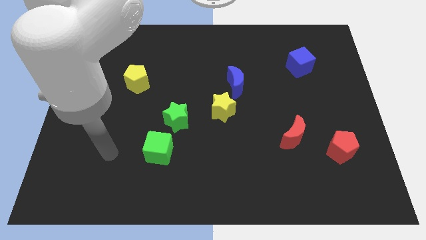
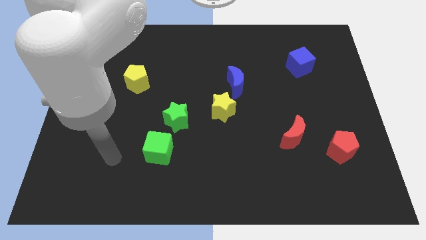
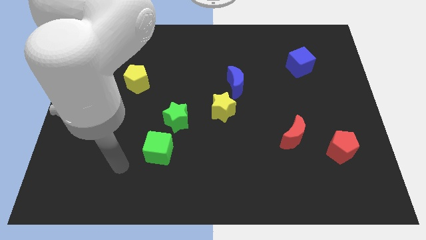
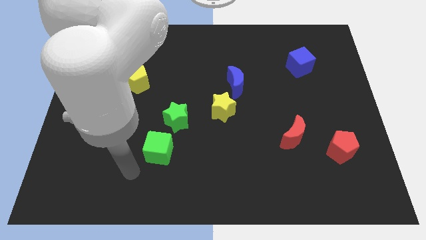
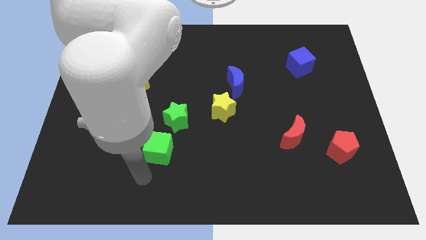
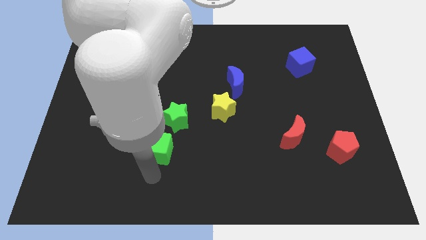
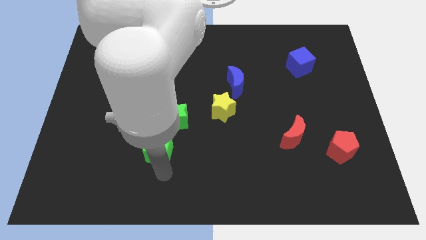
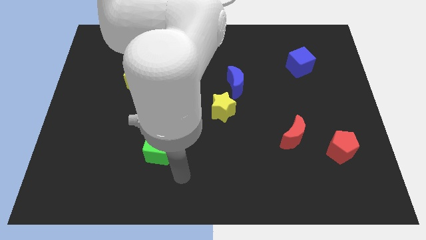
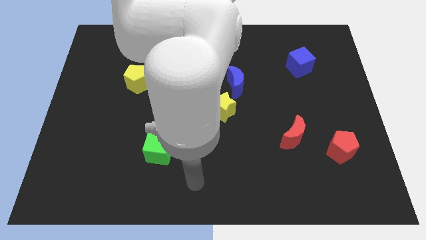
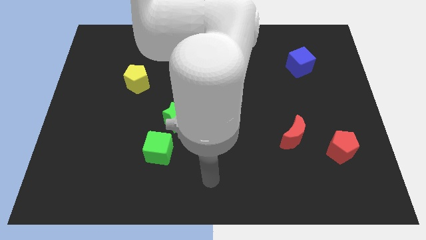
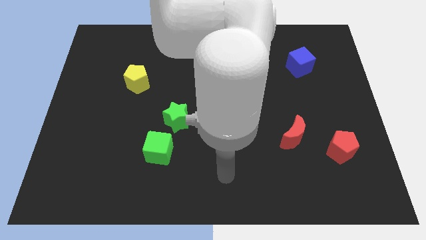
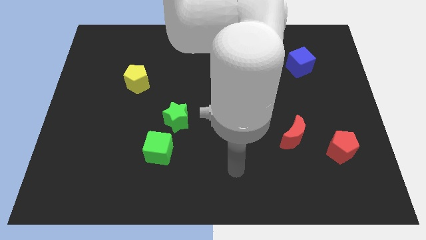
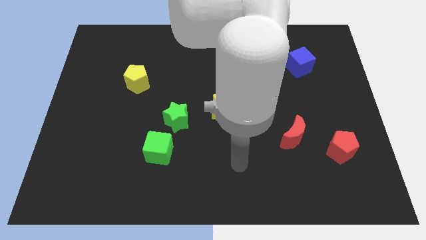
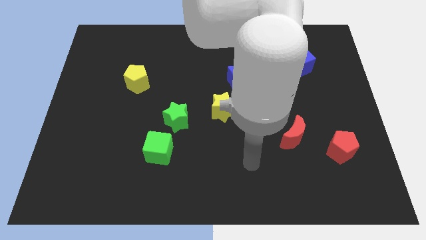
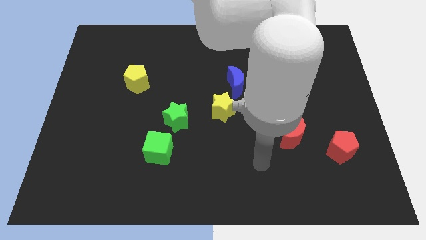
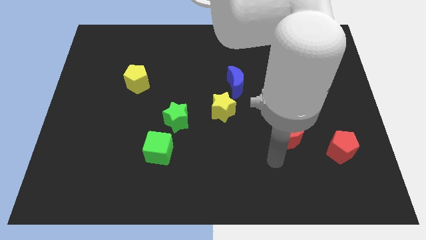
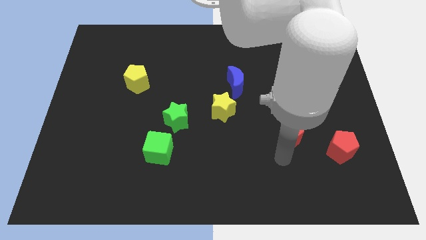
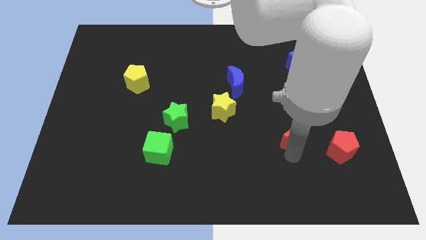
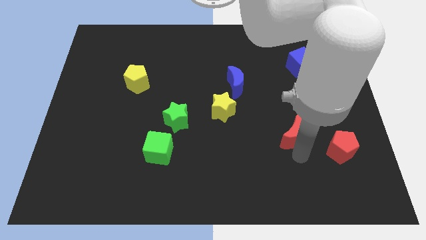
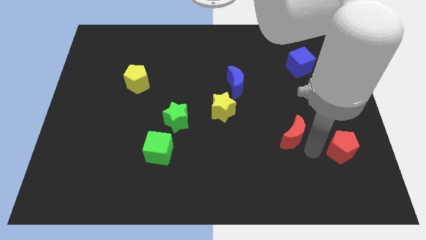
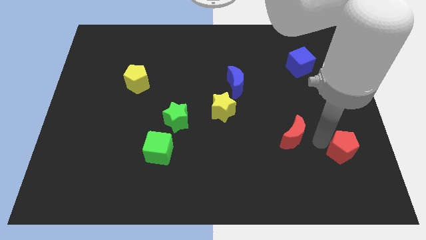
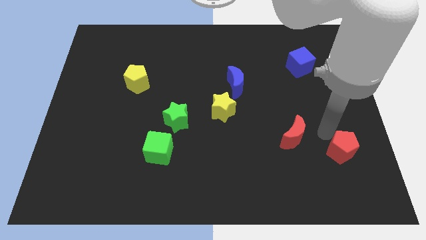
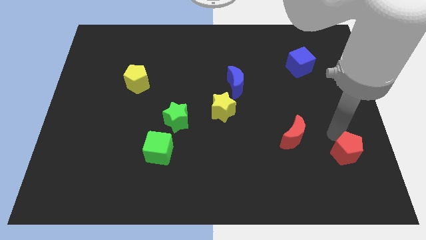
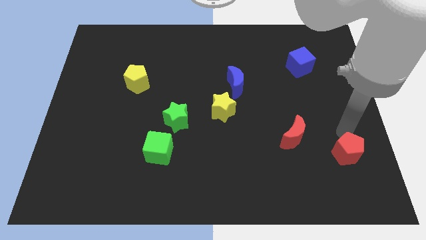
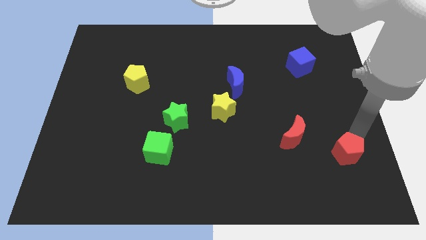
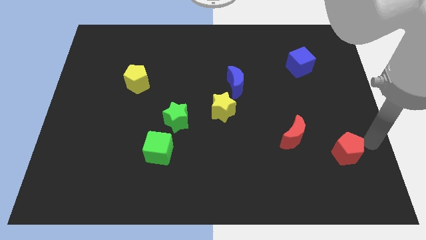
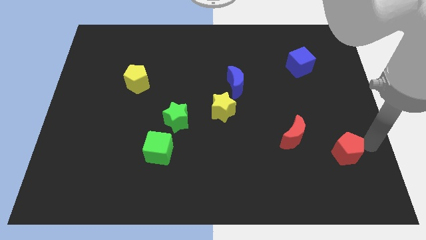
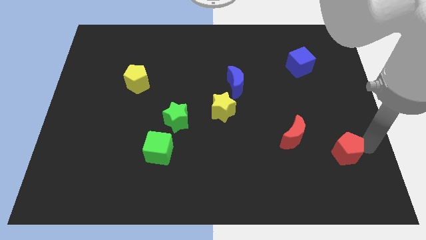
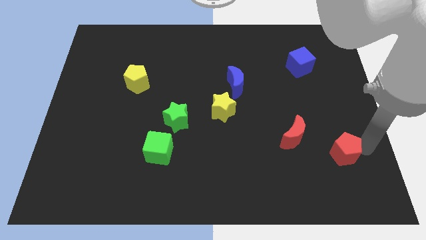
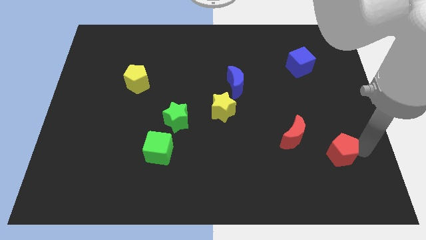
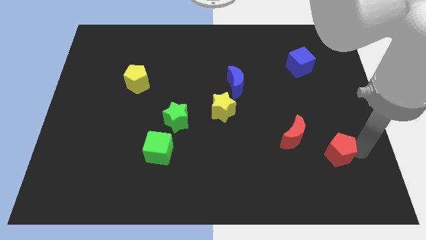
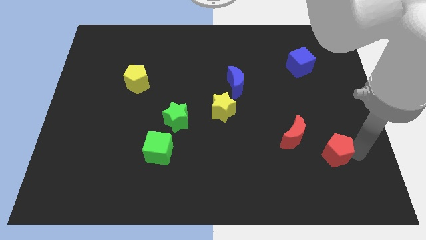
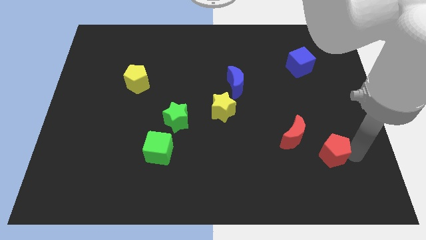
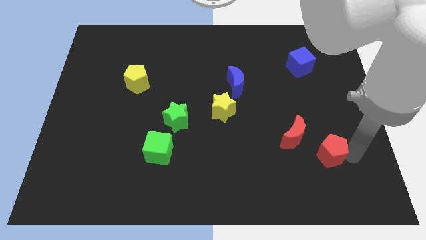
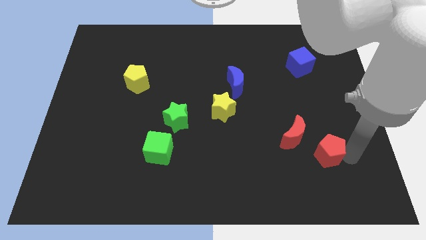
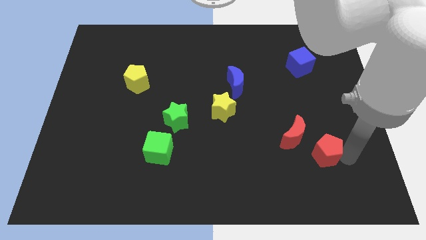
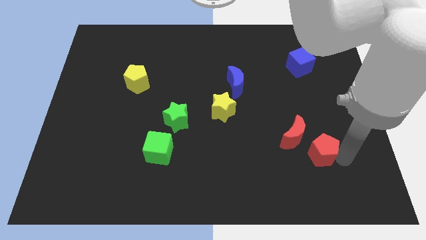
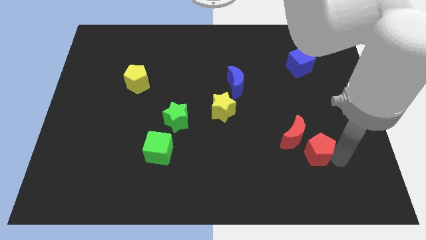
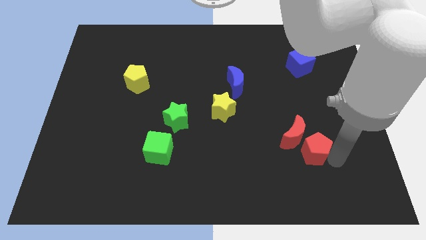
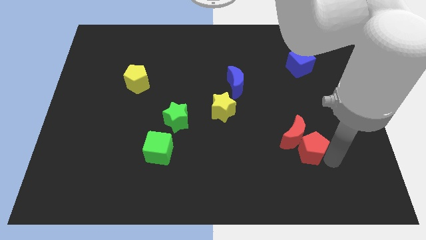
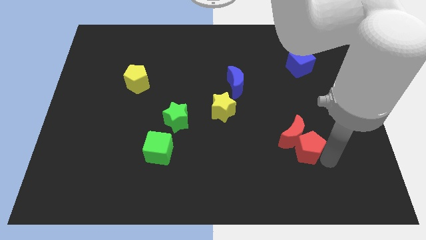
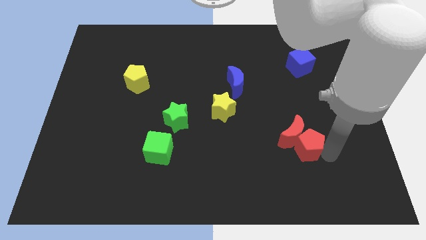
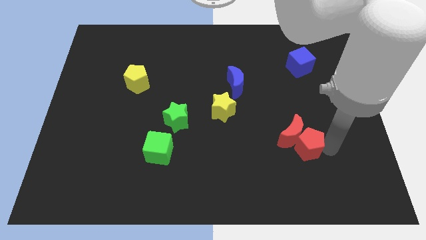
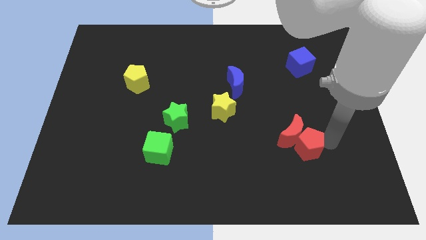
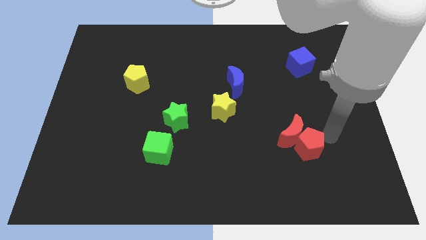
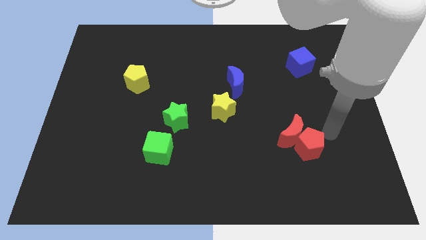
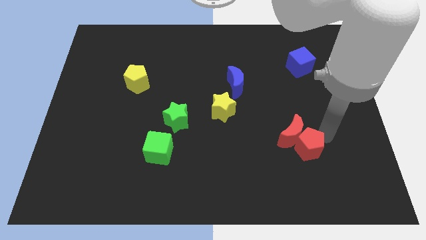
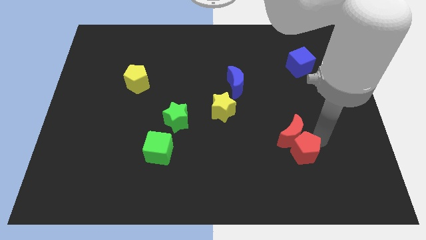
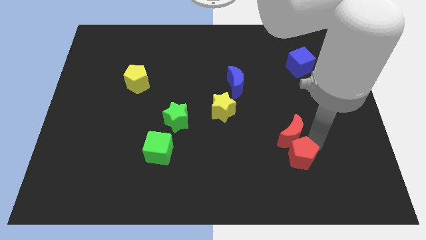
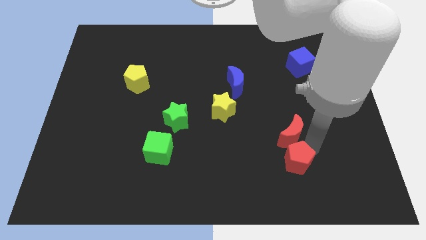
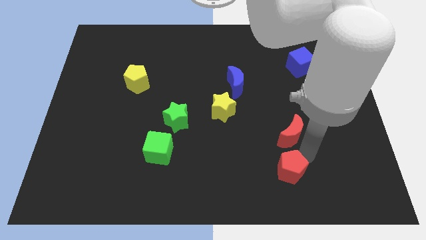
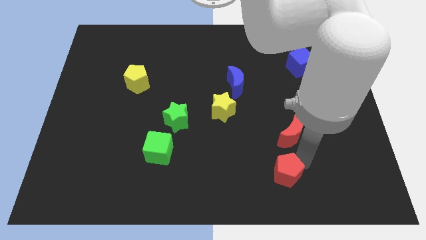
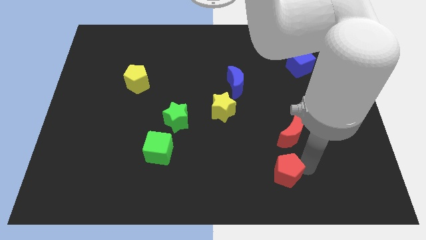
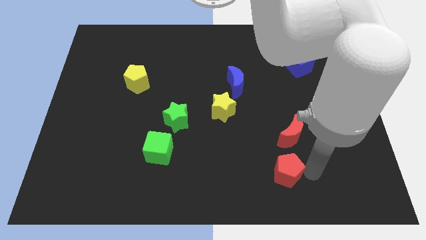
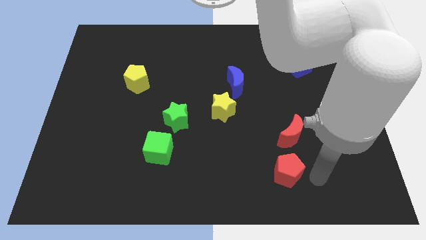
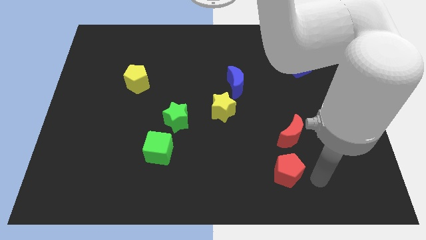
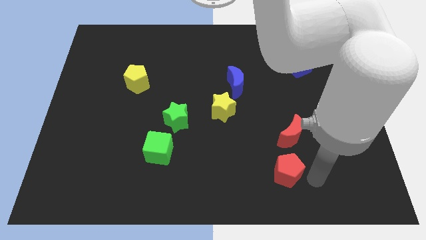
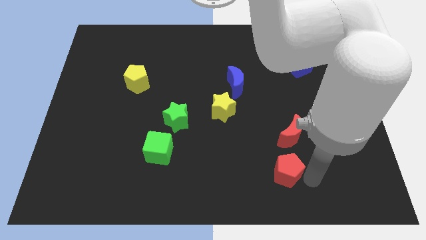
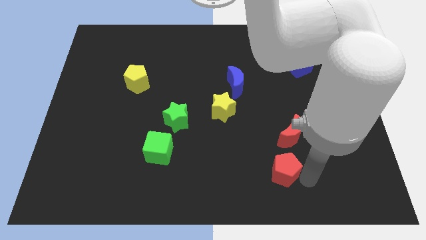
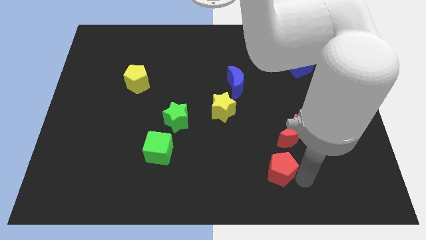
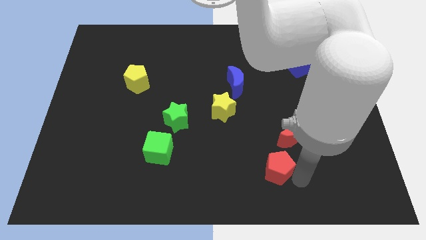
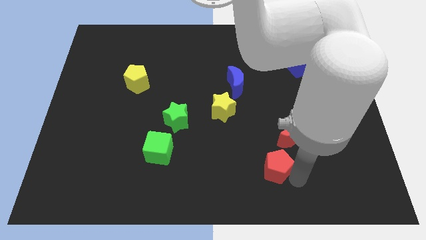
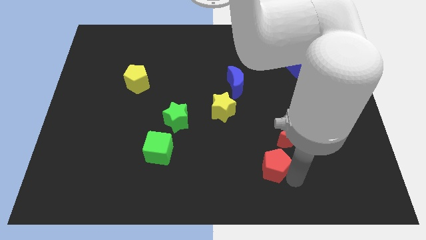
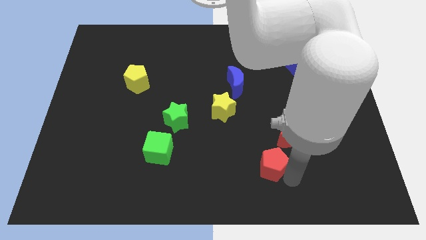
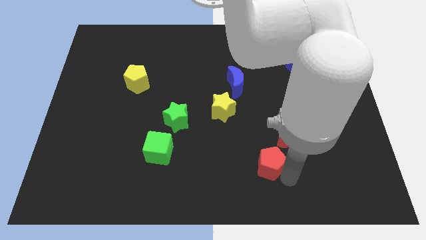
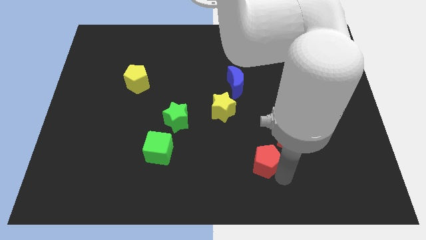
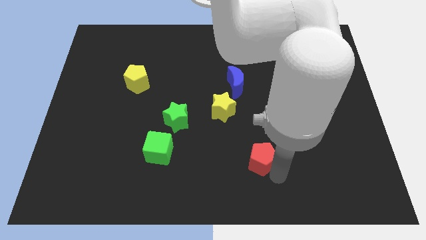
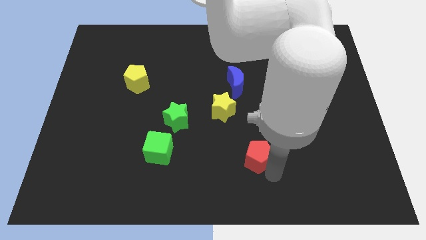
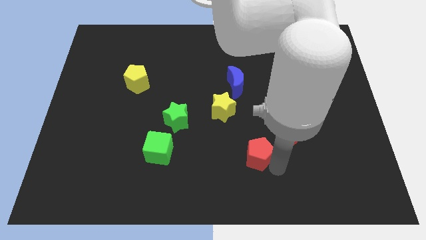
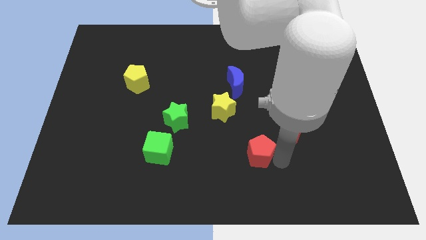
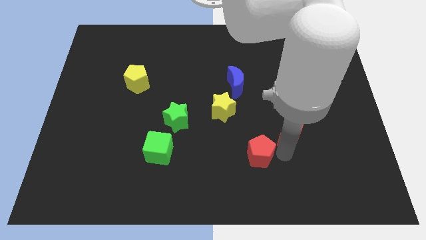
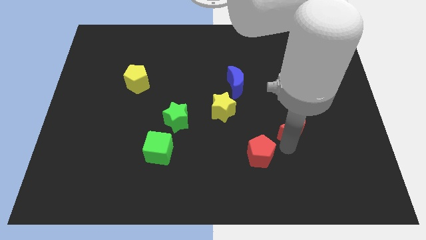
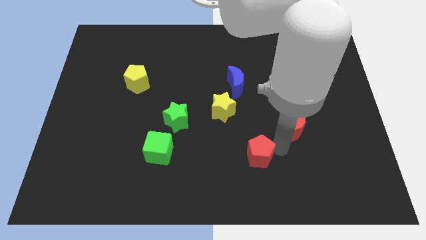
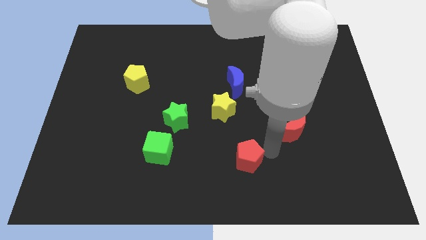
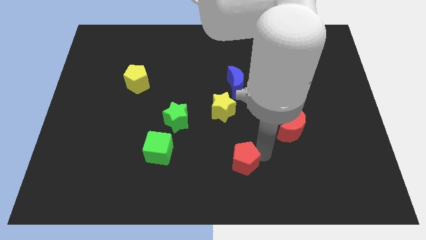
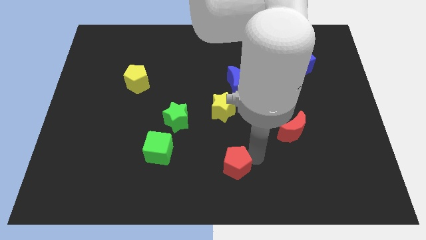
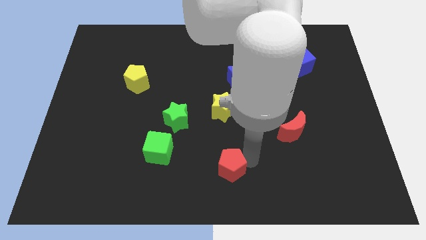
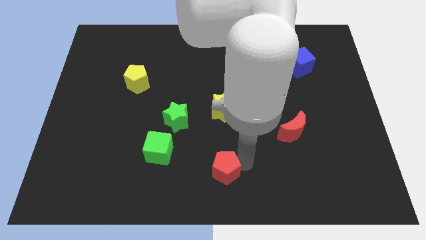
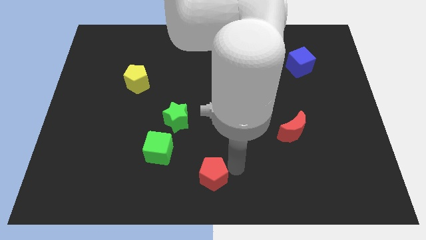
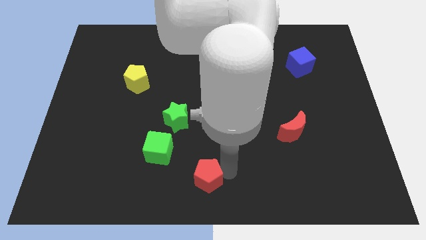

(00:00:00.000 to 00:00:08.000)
slide the red pentagon to the bottom right side of the green cube
